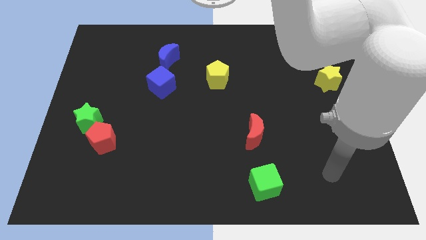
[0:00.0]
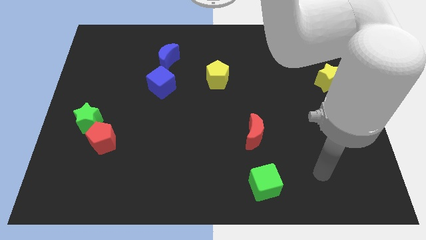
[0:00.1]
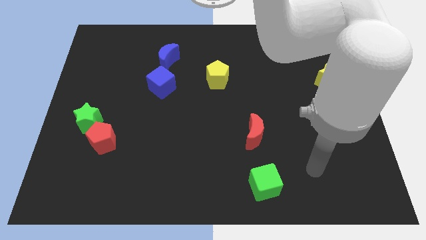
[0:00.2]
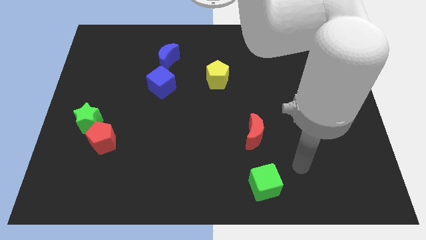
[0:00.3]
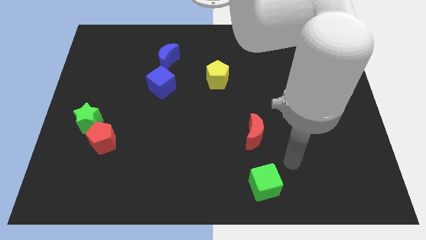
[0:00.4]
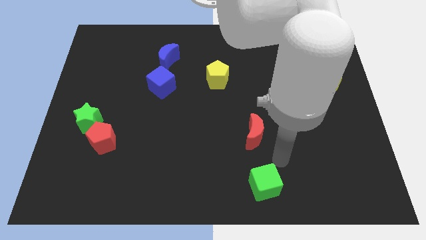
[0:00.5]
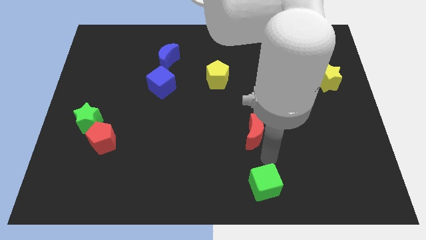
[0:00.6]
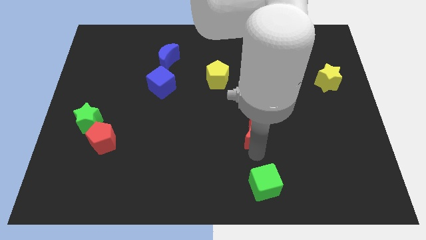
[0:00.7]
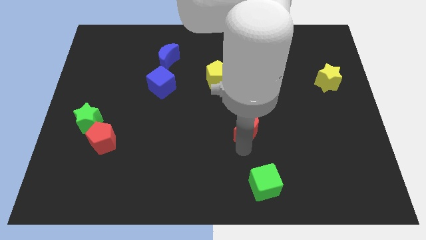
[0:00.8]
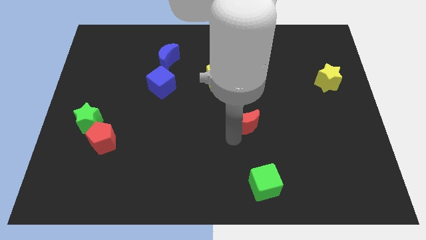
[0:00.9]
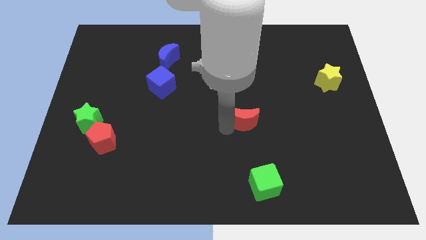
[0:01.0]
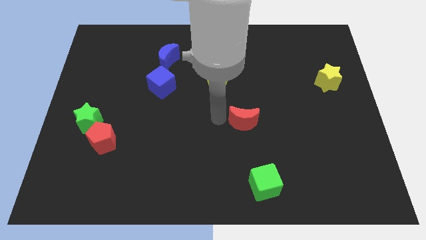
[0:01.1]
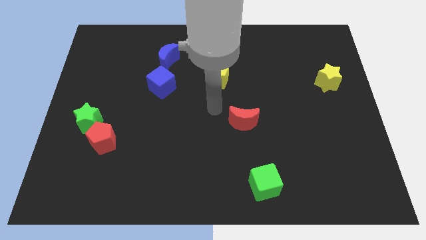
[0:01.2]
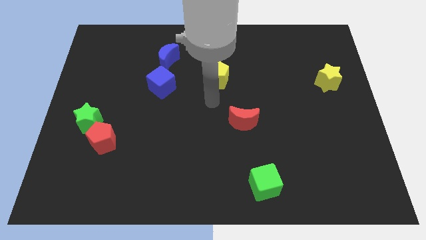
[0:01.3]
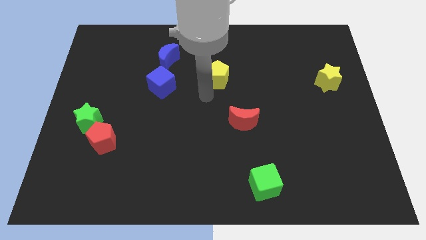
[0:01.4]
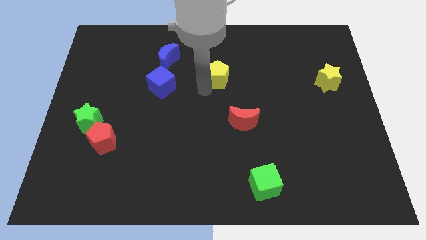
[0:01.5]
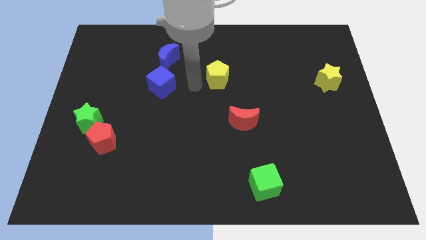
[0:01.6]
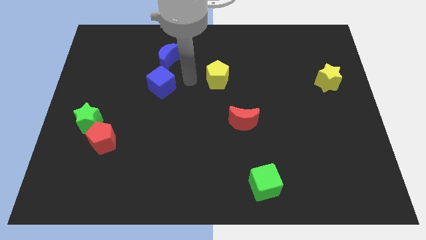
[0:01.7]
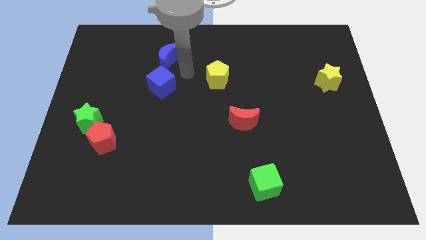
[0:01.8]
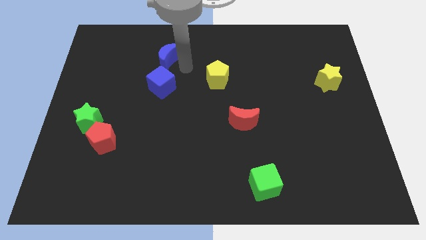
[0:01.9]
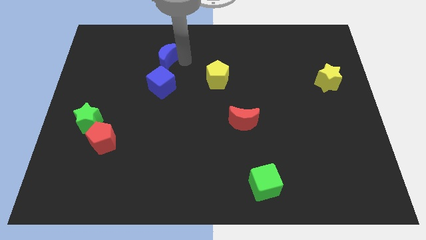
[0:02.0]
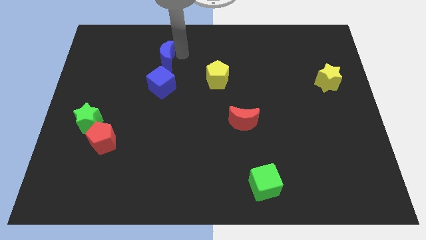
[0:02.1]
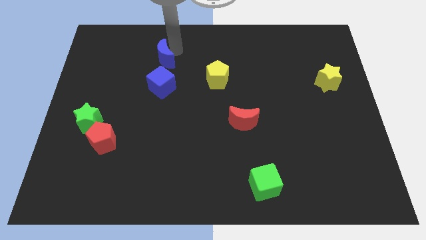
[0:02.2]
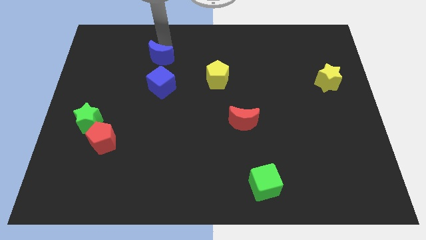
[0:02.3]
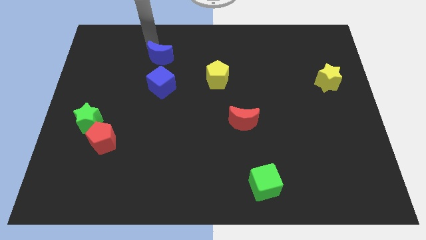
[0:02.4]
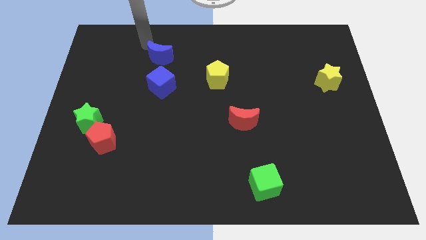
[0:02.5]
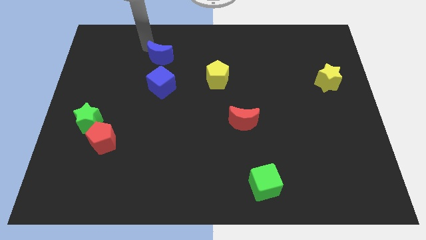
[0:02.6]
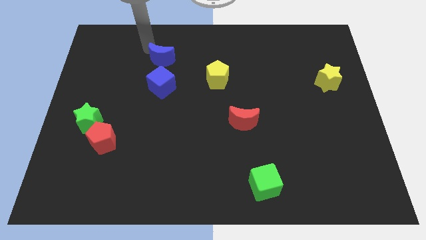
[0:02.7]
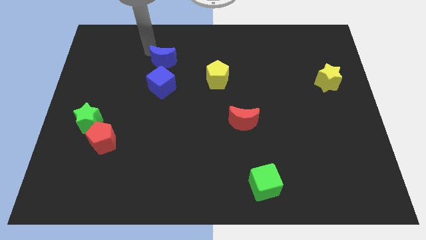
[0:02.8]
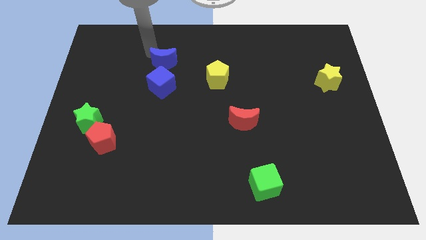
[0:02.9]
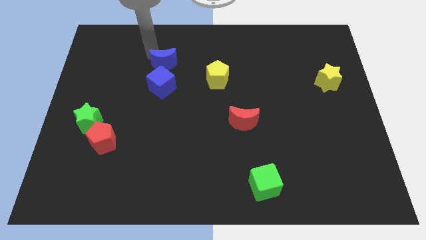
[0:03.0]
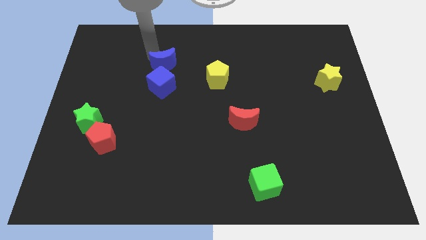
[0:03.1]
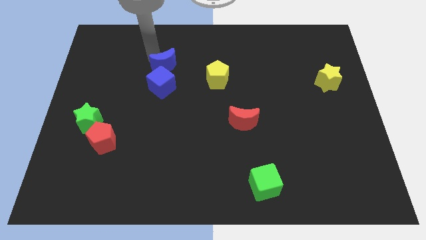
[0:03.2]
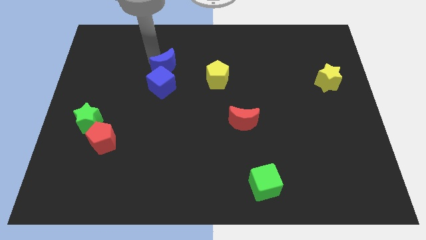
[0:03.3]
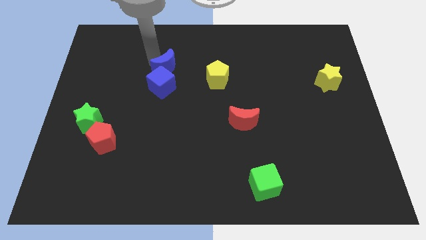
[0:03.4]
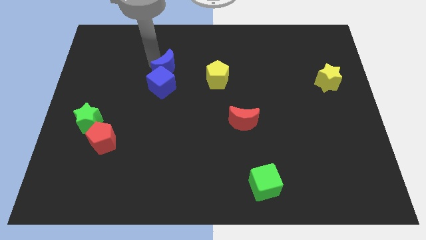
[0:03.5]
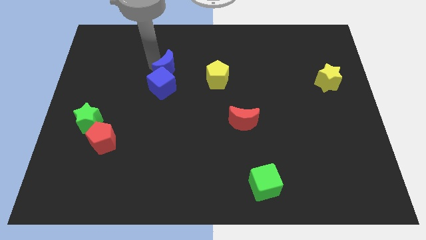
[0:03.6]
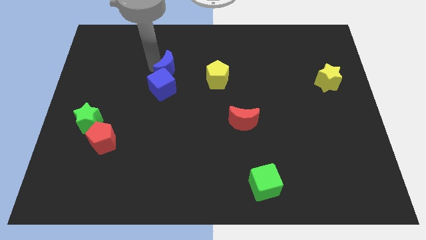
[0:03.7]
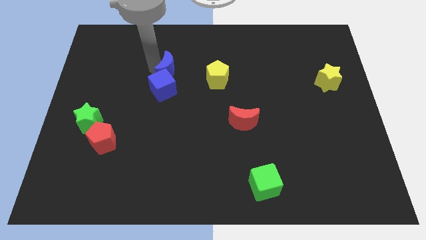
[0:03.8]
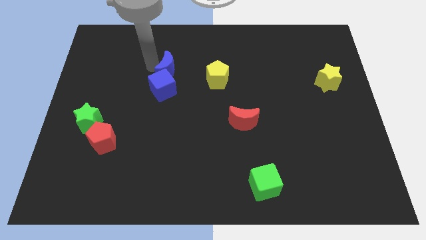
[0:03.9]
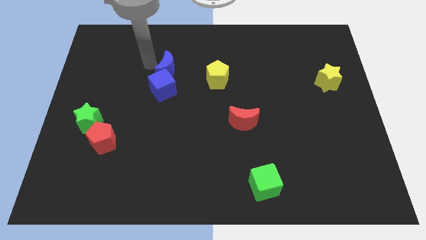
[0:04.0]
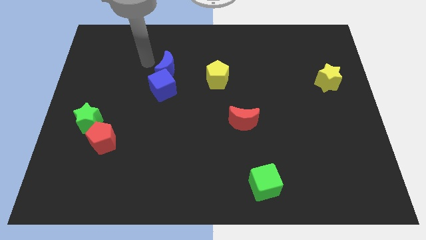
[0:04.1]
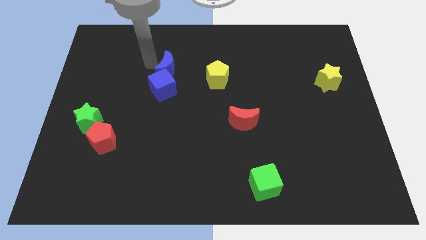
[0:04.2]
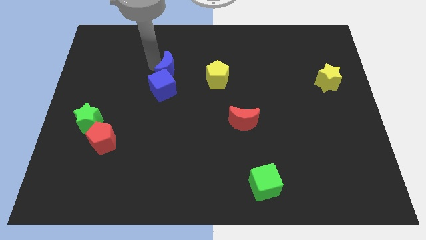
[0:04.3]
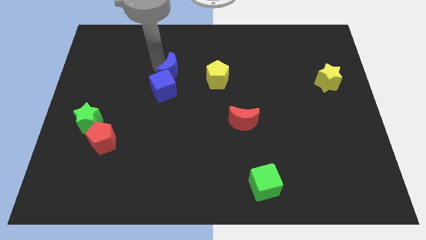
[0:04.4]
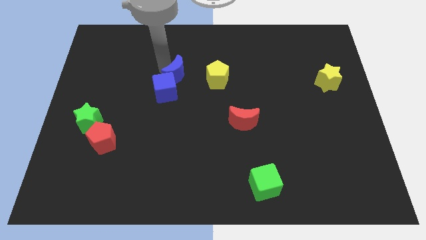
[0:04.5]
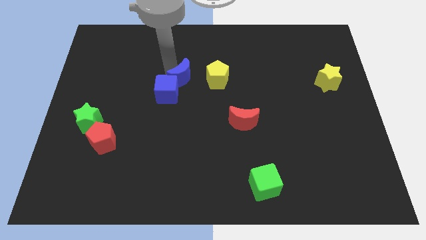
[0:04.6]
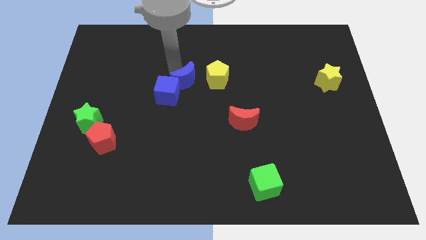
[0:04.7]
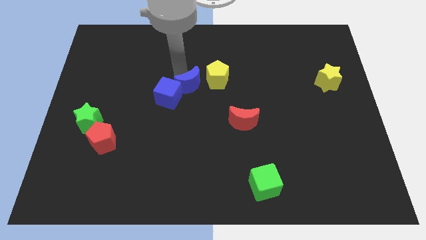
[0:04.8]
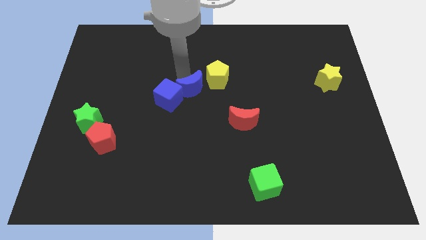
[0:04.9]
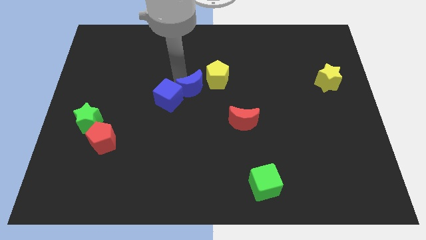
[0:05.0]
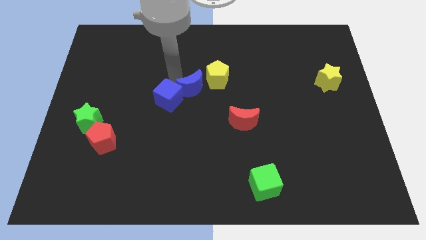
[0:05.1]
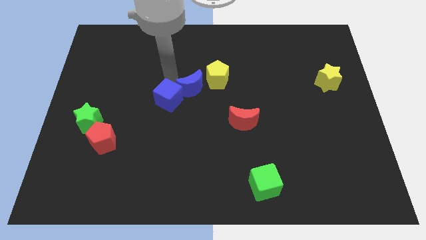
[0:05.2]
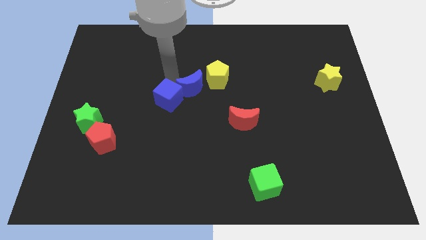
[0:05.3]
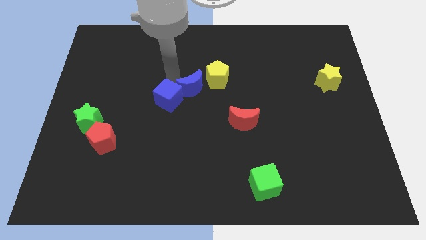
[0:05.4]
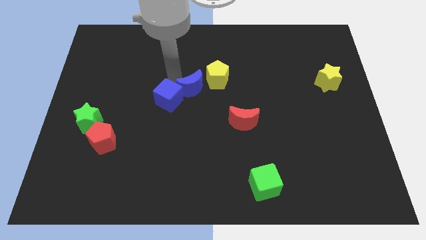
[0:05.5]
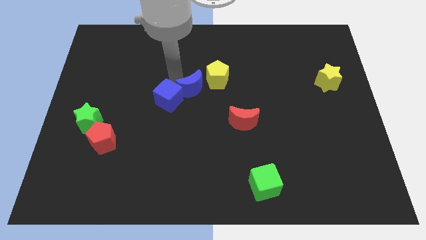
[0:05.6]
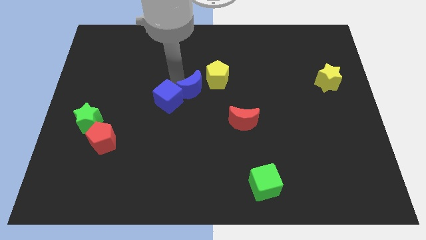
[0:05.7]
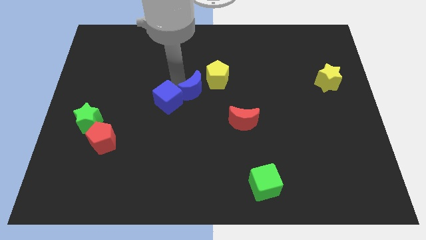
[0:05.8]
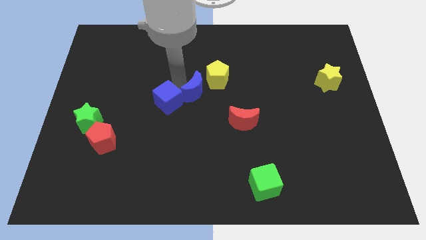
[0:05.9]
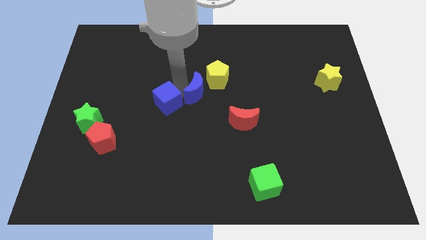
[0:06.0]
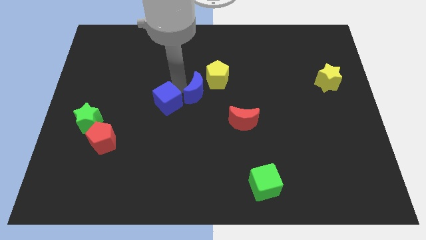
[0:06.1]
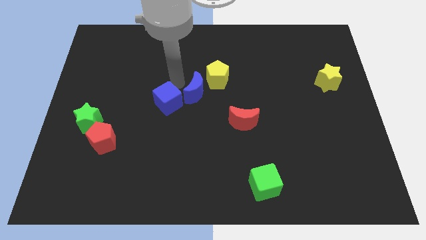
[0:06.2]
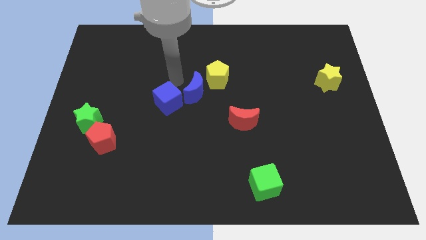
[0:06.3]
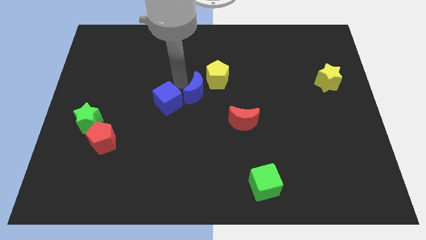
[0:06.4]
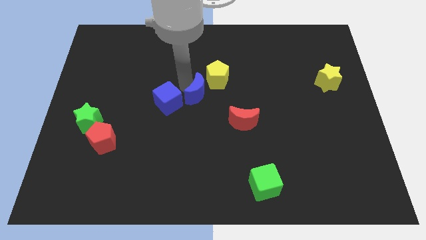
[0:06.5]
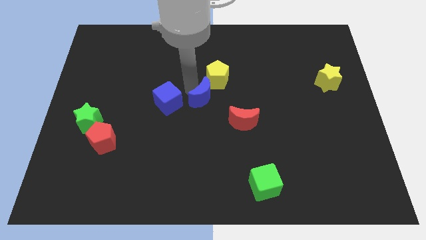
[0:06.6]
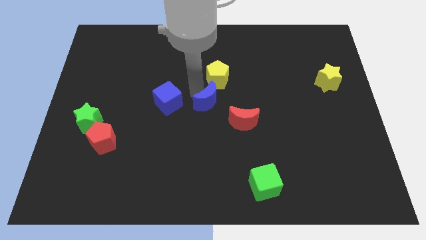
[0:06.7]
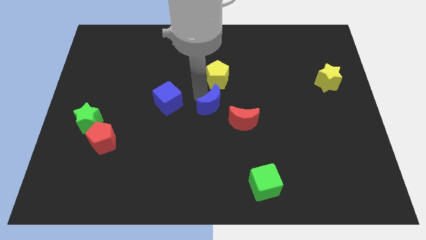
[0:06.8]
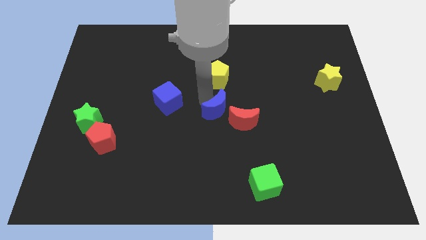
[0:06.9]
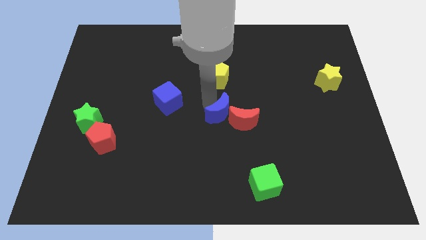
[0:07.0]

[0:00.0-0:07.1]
move the blue moon to the red moon
